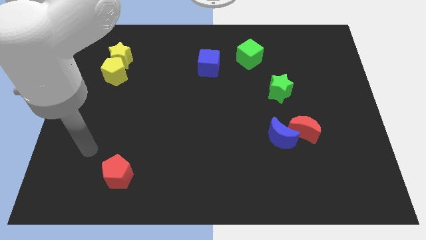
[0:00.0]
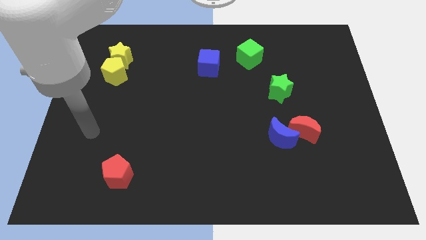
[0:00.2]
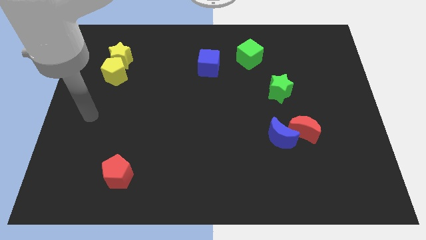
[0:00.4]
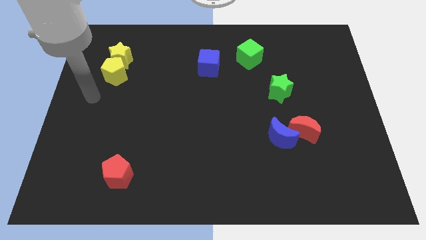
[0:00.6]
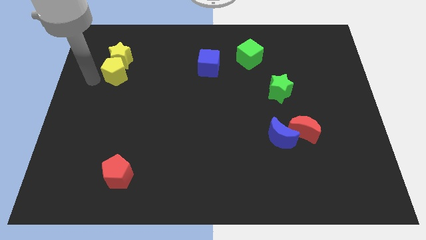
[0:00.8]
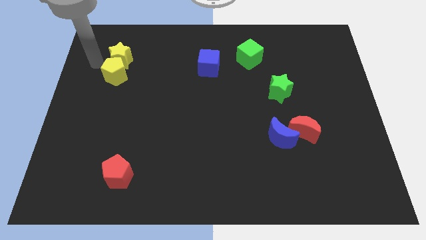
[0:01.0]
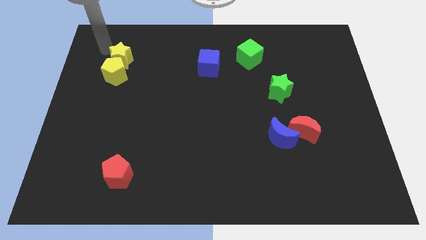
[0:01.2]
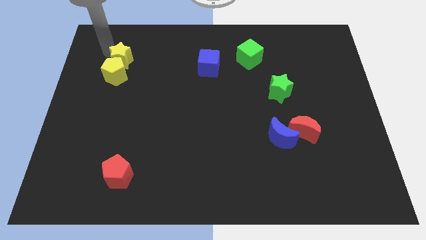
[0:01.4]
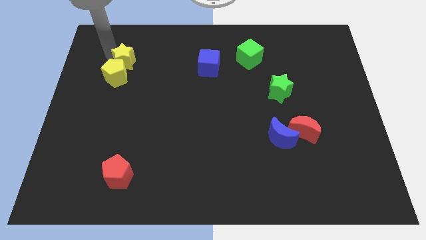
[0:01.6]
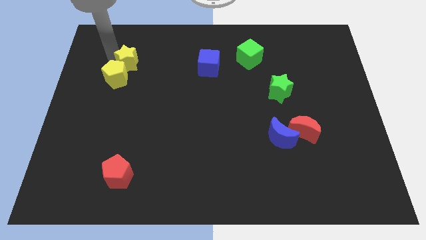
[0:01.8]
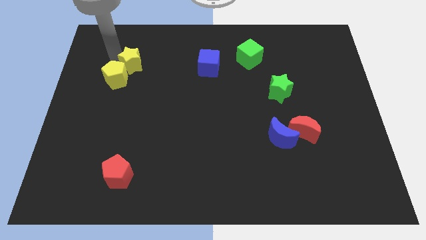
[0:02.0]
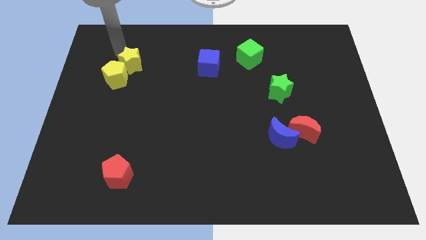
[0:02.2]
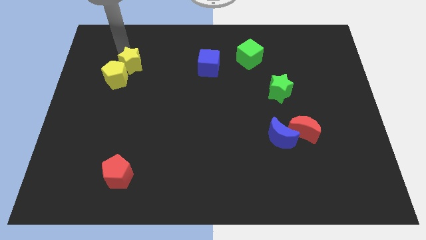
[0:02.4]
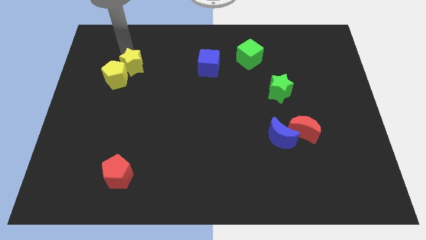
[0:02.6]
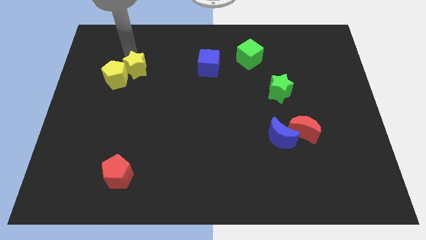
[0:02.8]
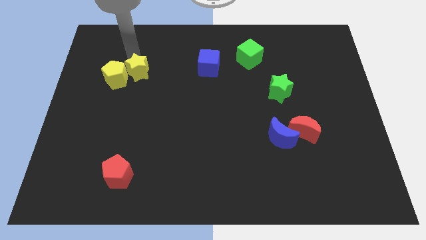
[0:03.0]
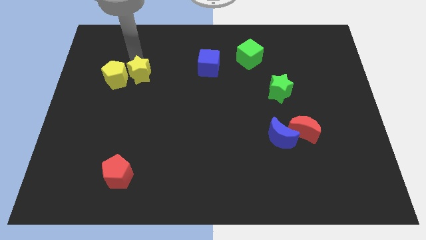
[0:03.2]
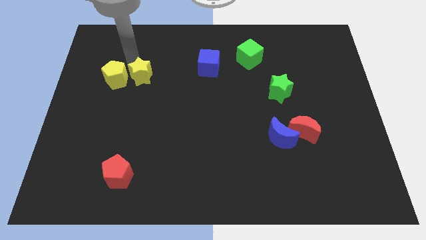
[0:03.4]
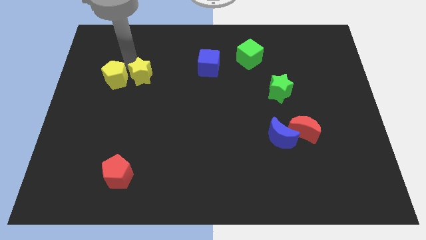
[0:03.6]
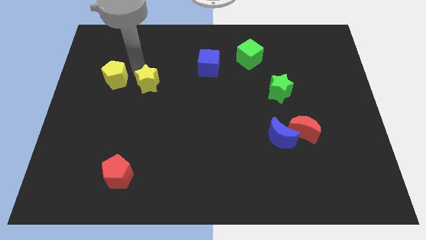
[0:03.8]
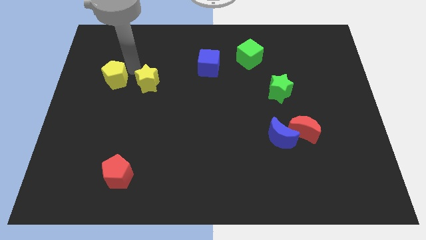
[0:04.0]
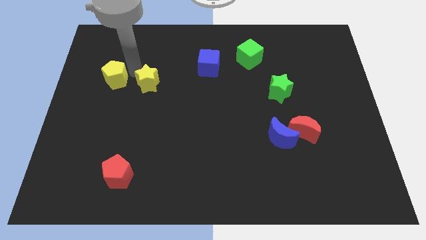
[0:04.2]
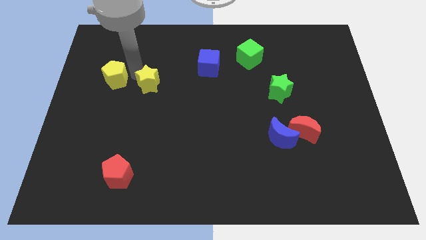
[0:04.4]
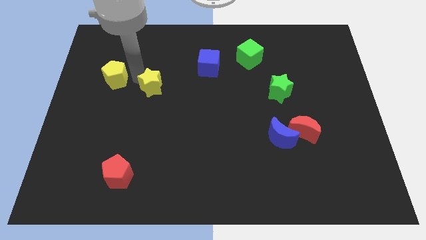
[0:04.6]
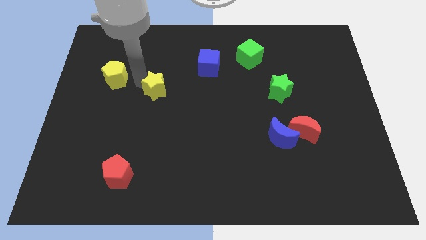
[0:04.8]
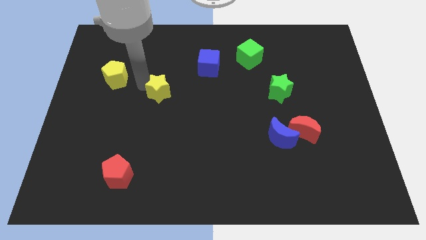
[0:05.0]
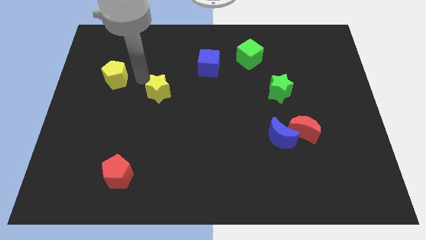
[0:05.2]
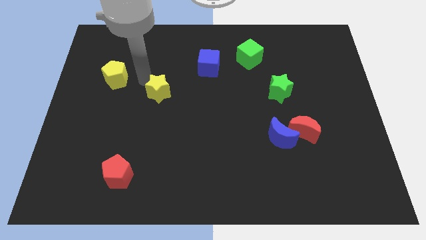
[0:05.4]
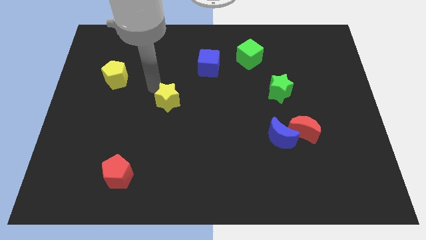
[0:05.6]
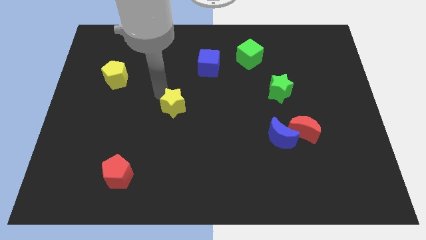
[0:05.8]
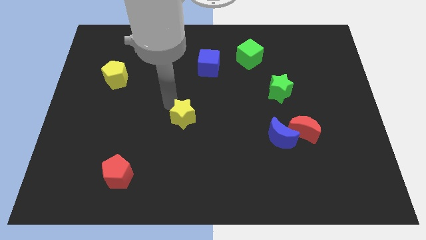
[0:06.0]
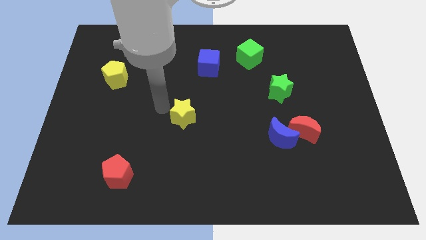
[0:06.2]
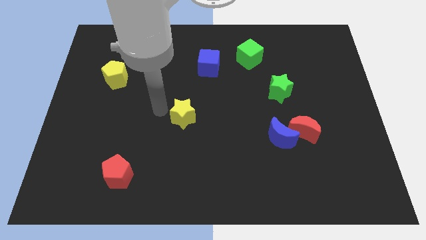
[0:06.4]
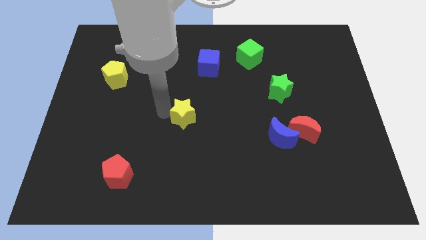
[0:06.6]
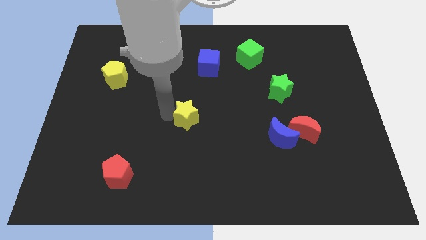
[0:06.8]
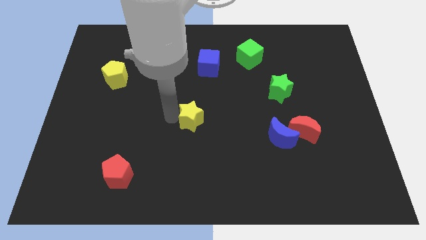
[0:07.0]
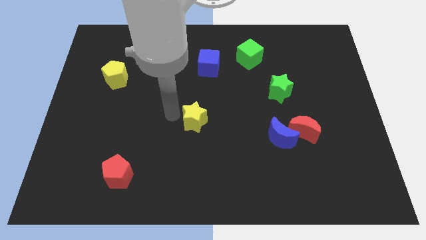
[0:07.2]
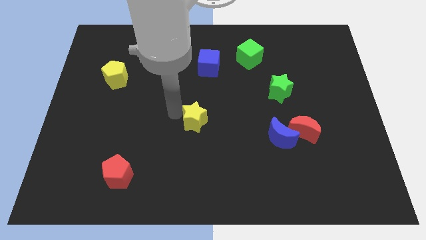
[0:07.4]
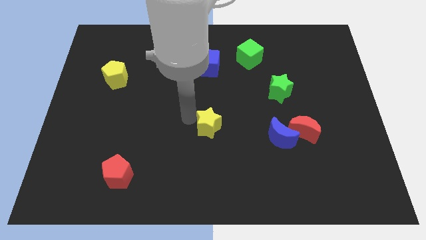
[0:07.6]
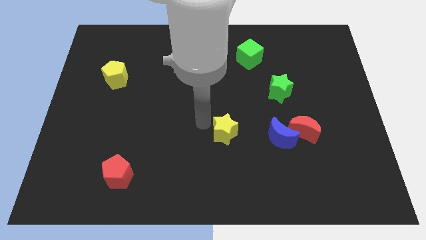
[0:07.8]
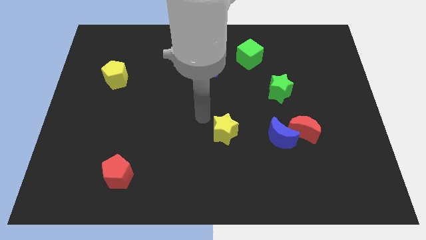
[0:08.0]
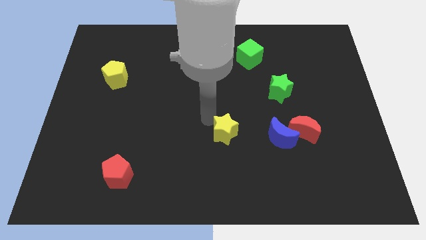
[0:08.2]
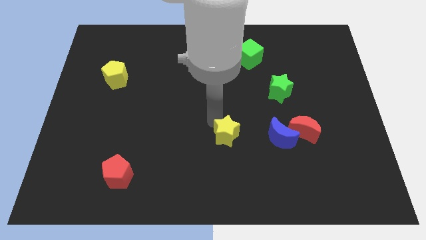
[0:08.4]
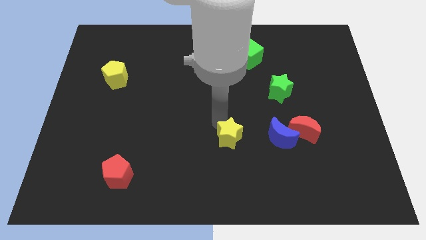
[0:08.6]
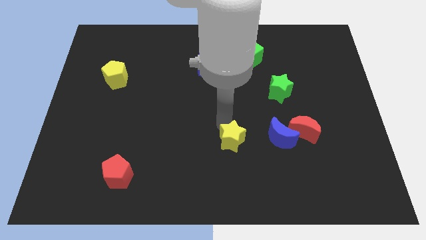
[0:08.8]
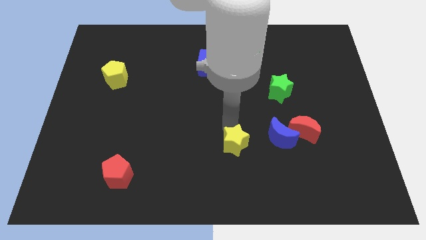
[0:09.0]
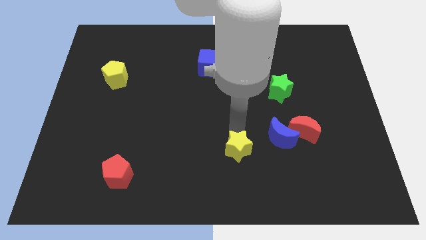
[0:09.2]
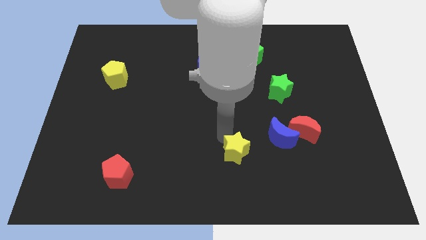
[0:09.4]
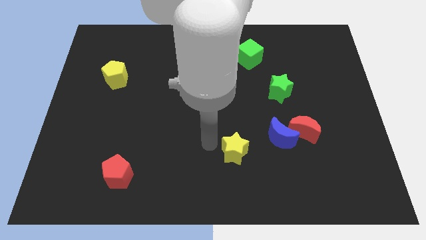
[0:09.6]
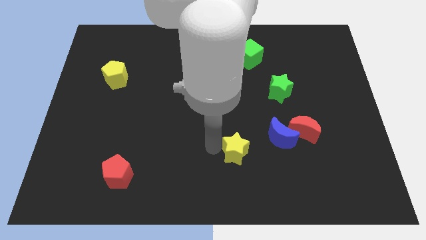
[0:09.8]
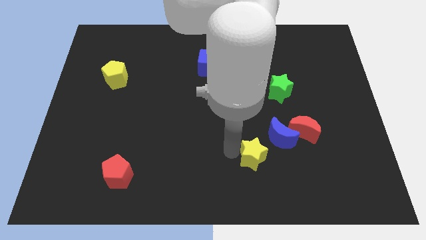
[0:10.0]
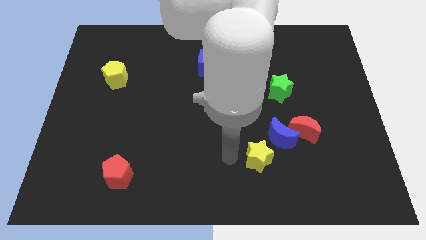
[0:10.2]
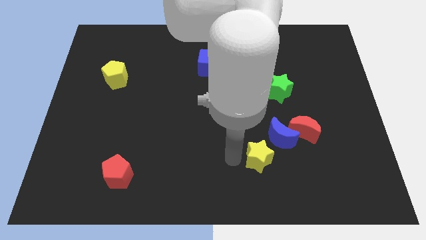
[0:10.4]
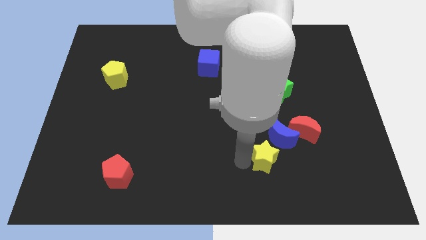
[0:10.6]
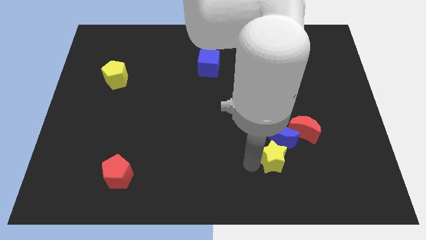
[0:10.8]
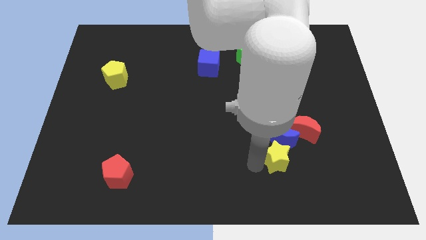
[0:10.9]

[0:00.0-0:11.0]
put the yellow star diagonally down and to the right of the blue moon

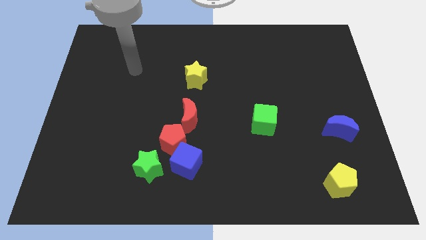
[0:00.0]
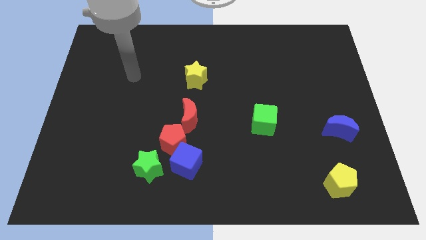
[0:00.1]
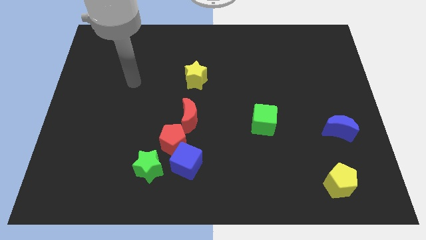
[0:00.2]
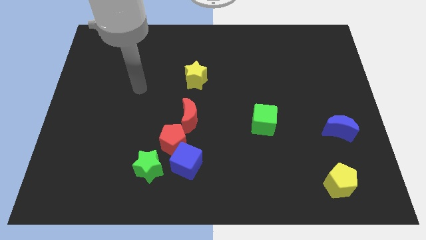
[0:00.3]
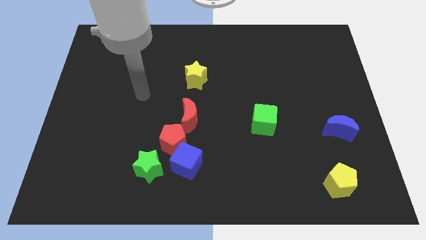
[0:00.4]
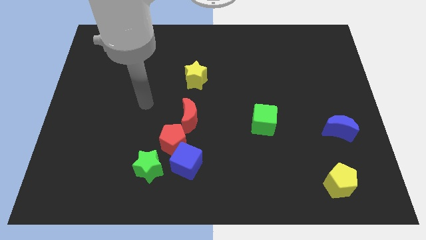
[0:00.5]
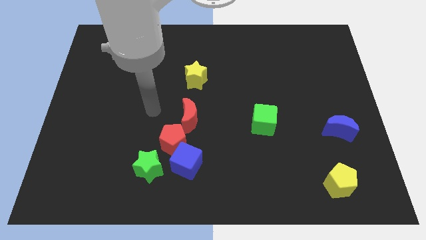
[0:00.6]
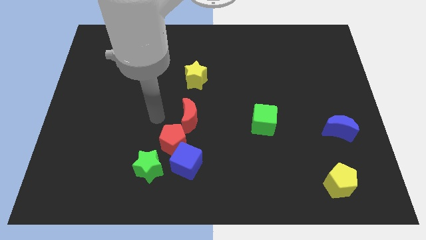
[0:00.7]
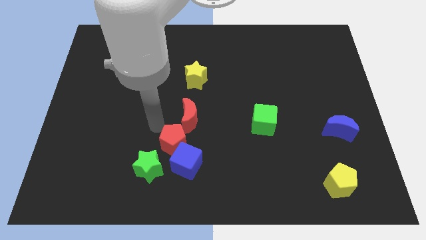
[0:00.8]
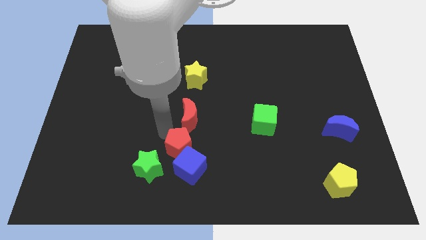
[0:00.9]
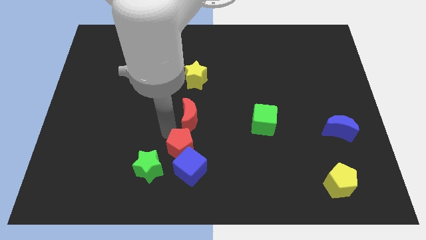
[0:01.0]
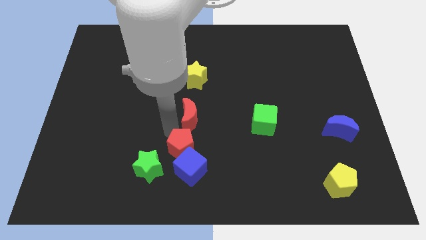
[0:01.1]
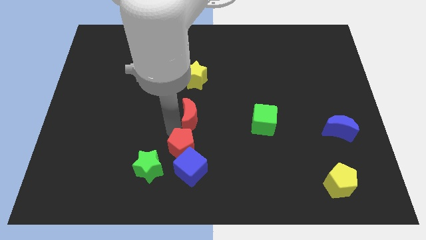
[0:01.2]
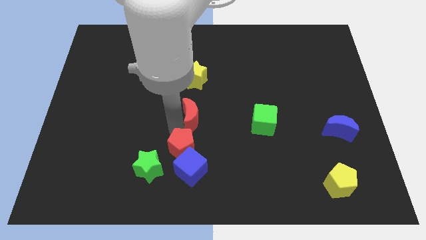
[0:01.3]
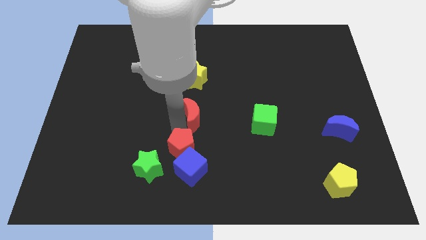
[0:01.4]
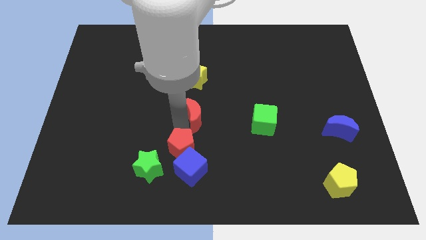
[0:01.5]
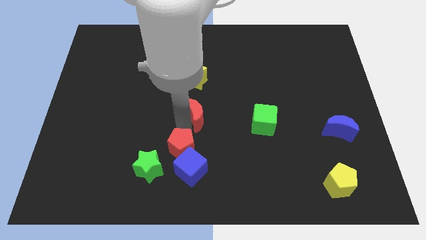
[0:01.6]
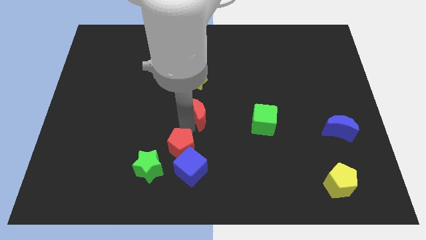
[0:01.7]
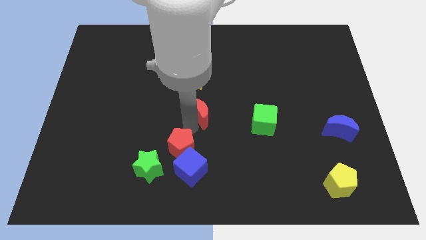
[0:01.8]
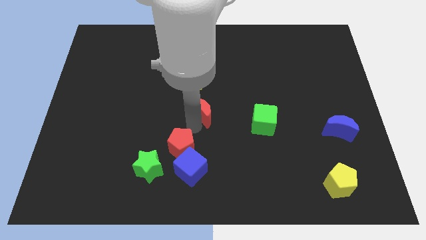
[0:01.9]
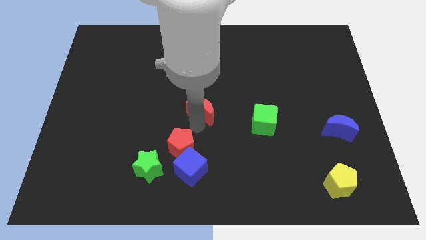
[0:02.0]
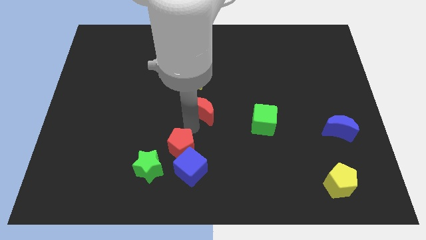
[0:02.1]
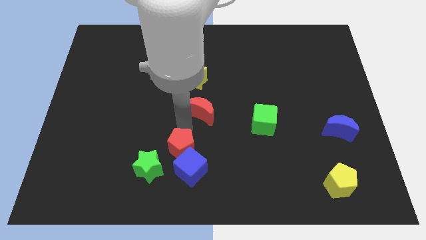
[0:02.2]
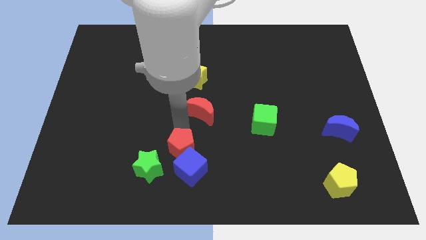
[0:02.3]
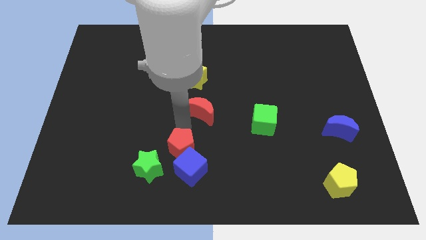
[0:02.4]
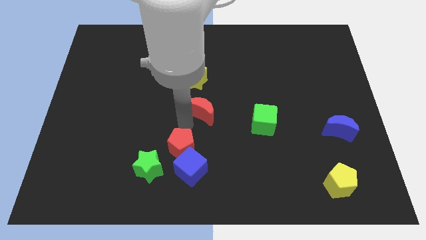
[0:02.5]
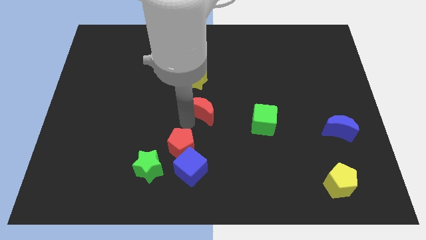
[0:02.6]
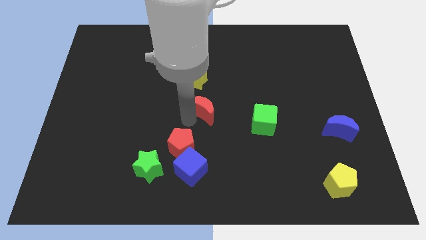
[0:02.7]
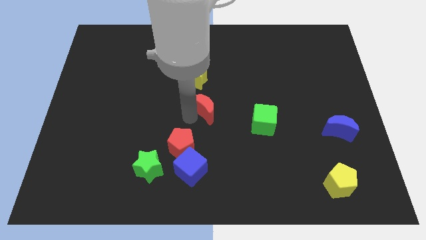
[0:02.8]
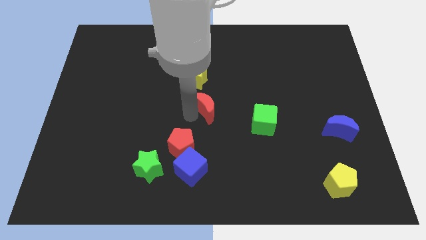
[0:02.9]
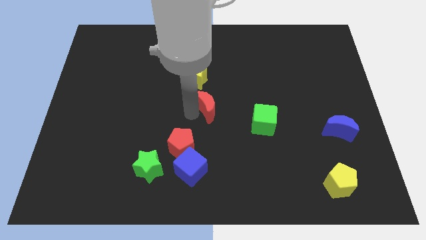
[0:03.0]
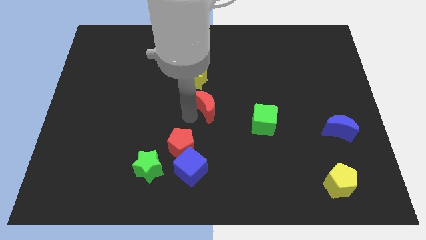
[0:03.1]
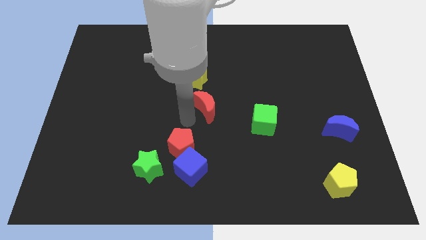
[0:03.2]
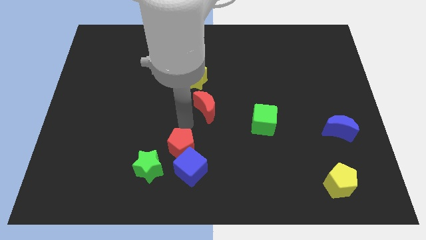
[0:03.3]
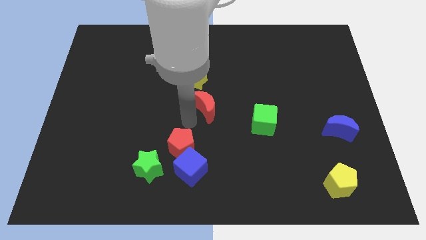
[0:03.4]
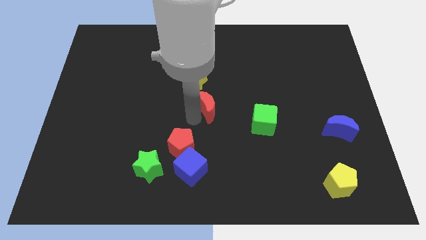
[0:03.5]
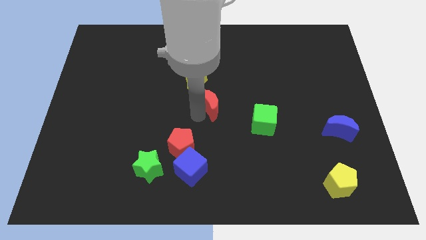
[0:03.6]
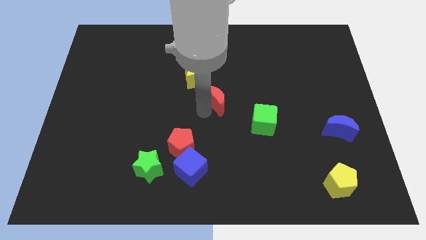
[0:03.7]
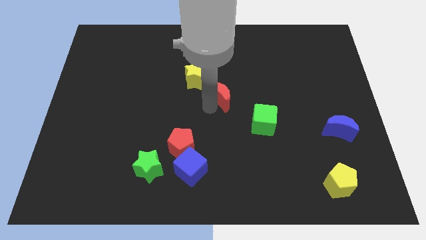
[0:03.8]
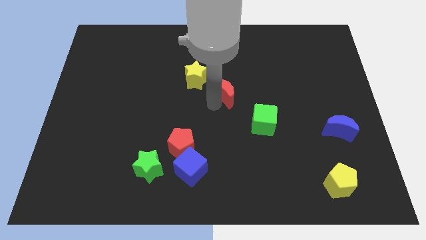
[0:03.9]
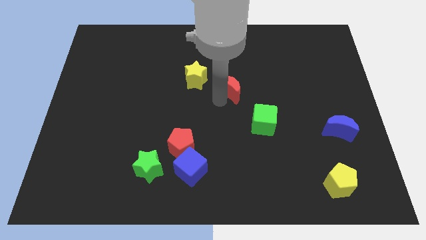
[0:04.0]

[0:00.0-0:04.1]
push the red moon just right of the yellow star
